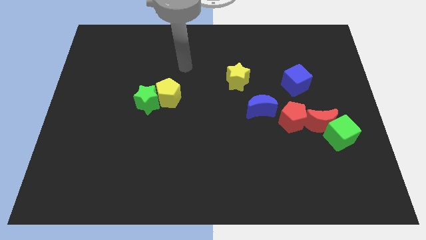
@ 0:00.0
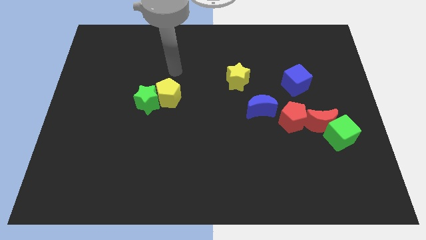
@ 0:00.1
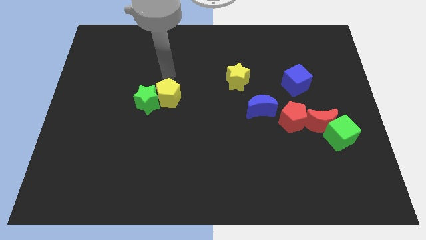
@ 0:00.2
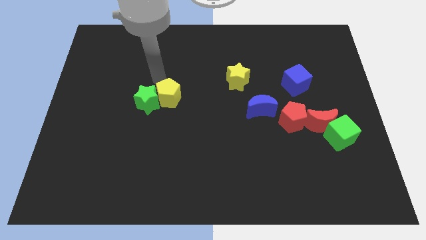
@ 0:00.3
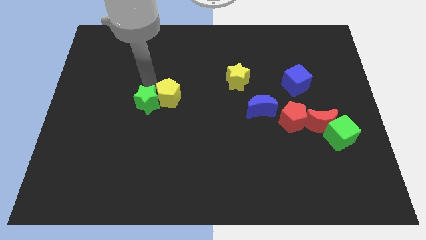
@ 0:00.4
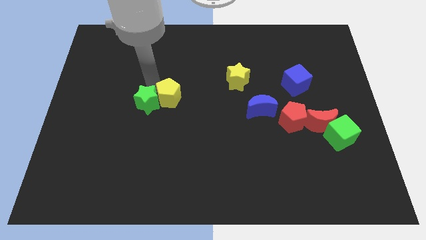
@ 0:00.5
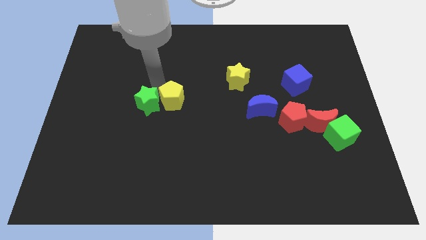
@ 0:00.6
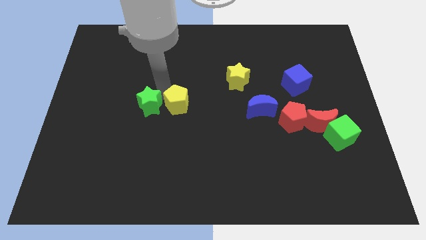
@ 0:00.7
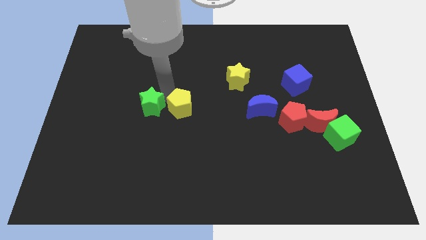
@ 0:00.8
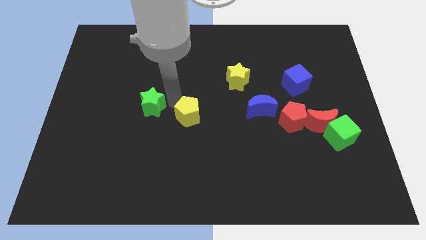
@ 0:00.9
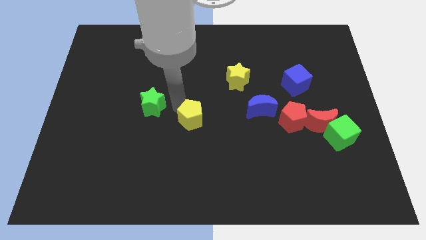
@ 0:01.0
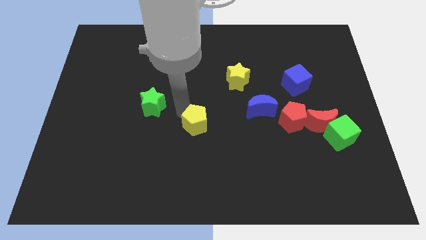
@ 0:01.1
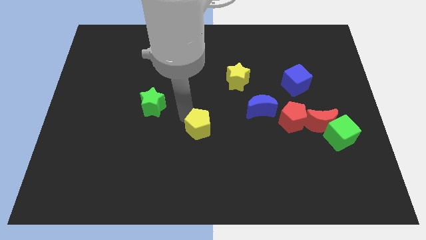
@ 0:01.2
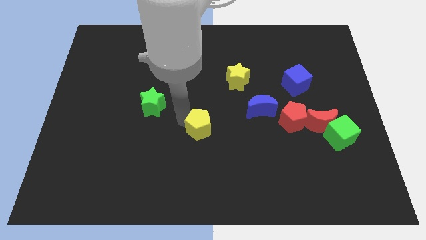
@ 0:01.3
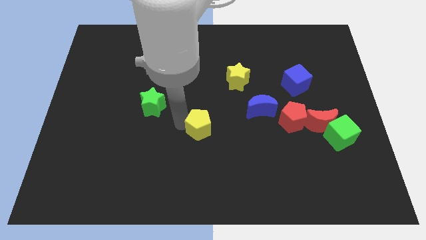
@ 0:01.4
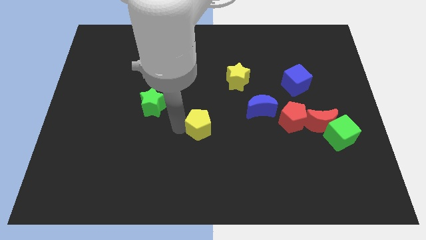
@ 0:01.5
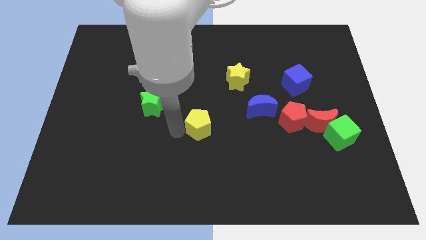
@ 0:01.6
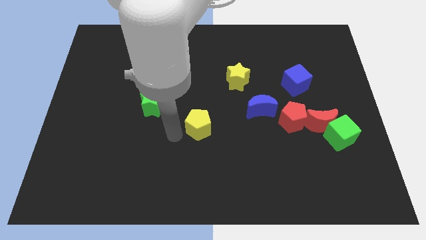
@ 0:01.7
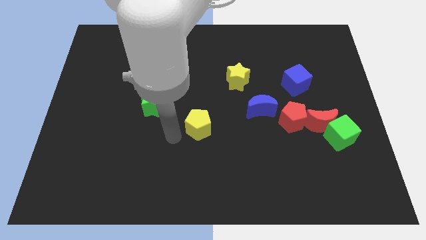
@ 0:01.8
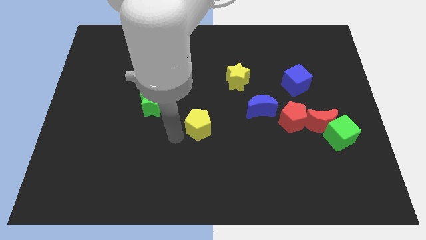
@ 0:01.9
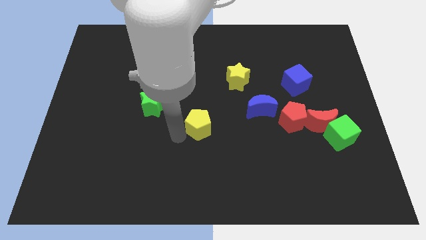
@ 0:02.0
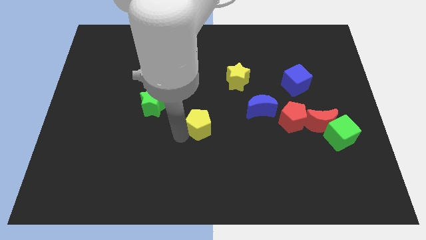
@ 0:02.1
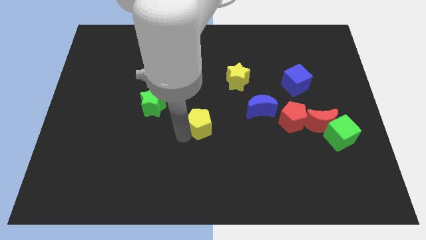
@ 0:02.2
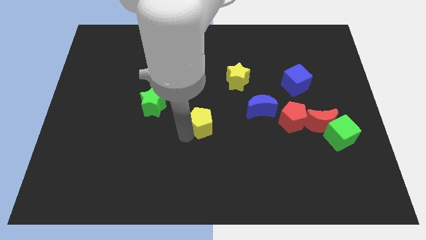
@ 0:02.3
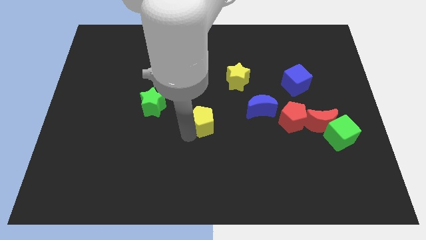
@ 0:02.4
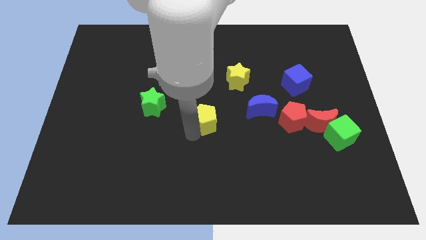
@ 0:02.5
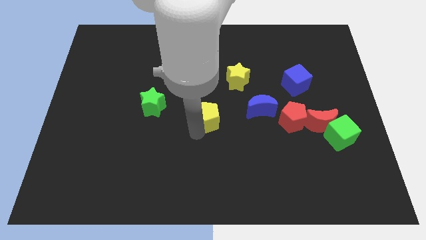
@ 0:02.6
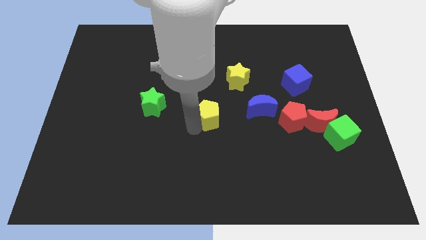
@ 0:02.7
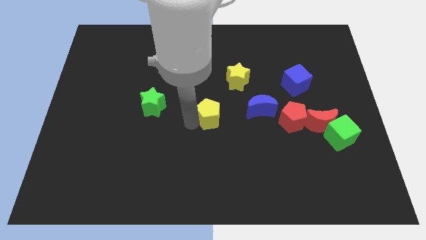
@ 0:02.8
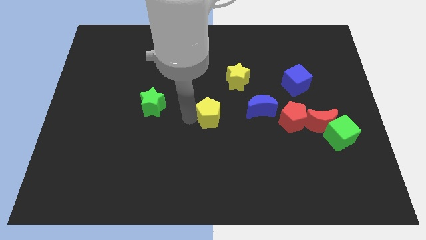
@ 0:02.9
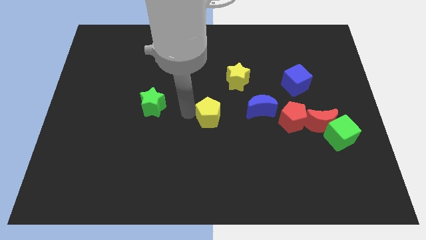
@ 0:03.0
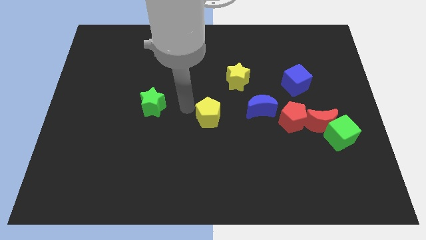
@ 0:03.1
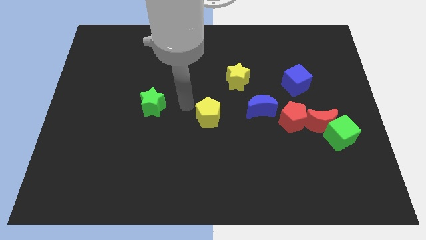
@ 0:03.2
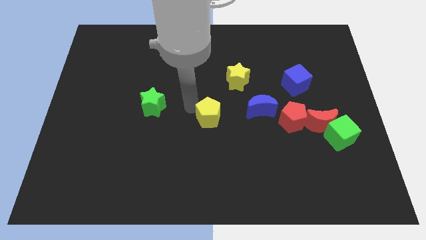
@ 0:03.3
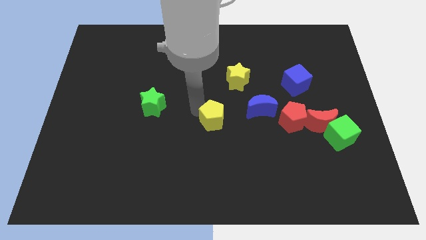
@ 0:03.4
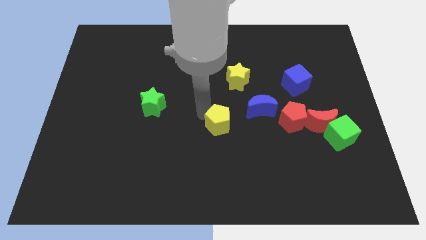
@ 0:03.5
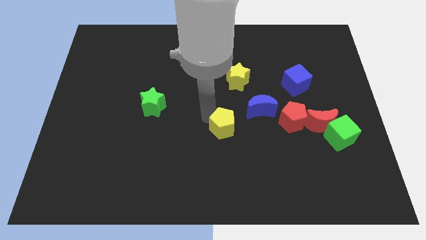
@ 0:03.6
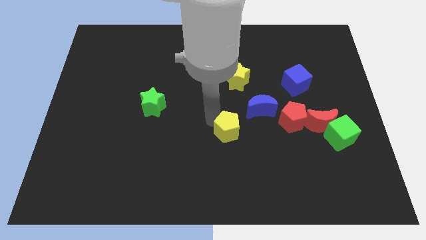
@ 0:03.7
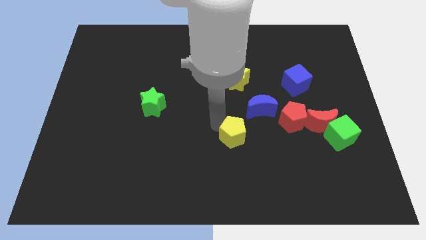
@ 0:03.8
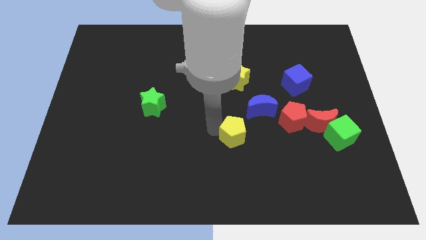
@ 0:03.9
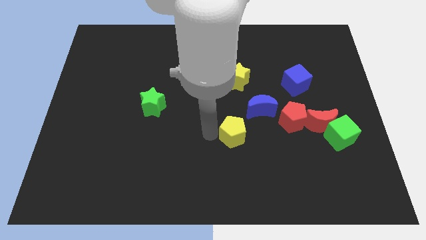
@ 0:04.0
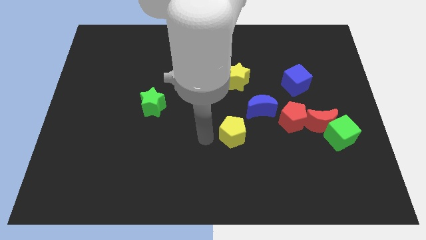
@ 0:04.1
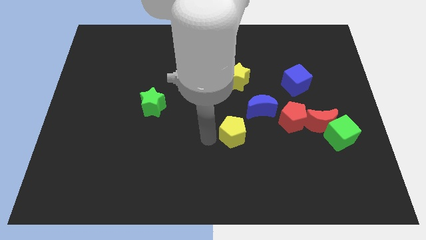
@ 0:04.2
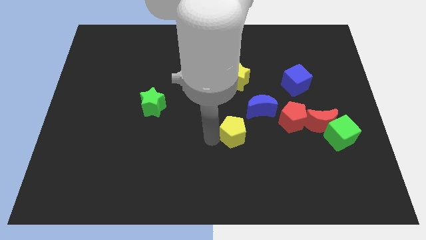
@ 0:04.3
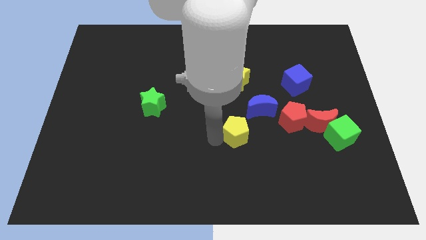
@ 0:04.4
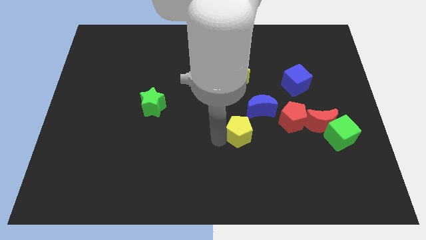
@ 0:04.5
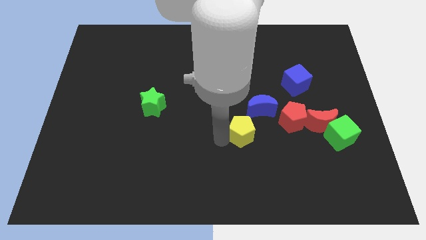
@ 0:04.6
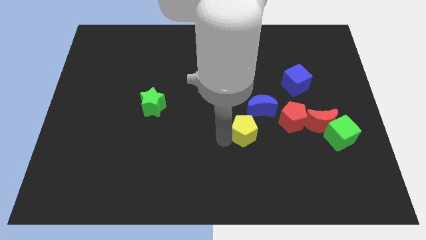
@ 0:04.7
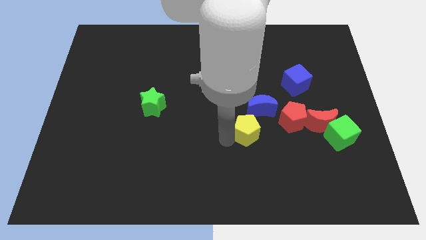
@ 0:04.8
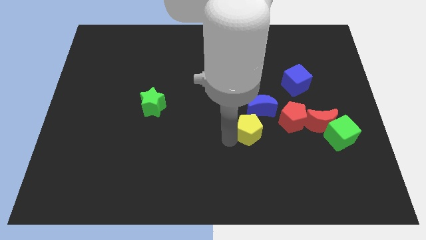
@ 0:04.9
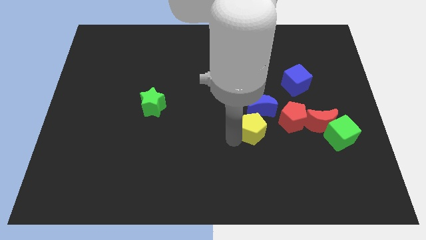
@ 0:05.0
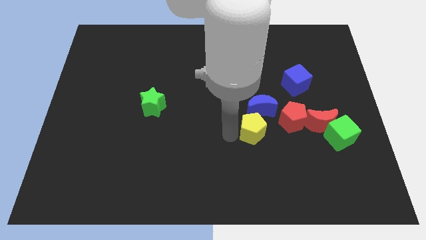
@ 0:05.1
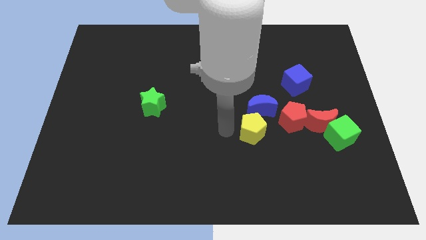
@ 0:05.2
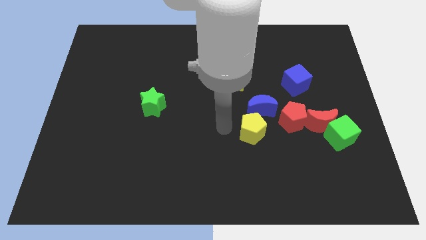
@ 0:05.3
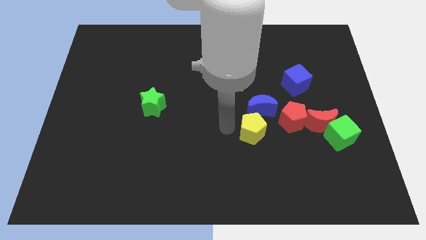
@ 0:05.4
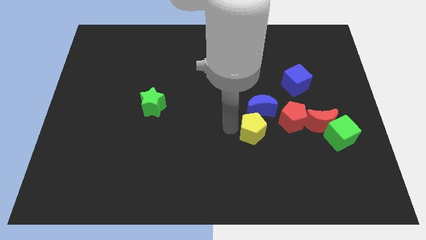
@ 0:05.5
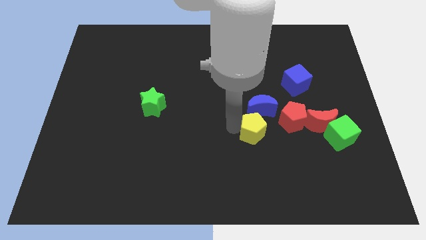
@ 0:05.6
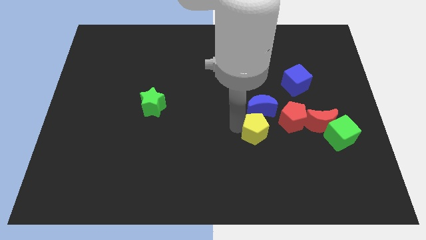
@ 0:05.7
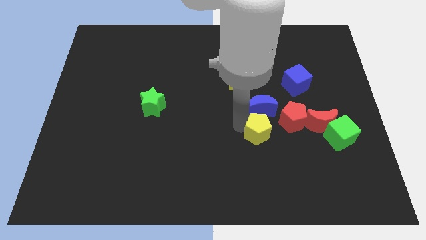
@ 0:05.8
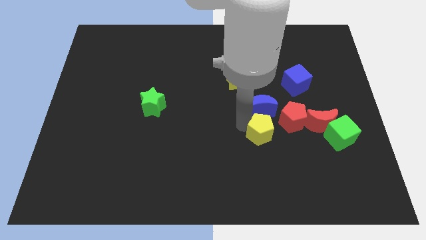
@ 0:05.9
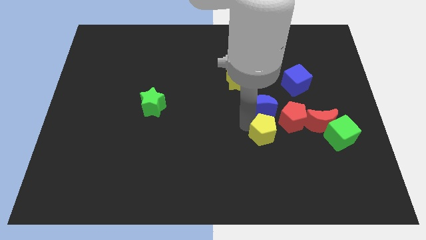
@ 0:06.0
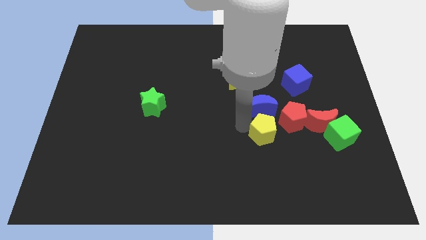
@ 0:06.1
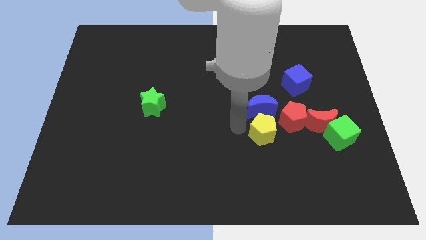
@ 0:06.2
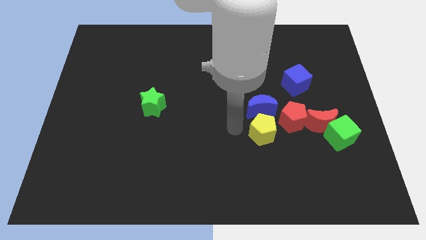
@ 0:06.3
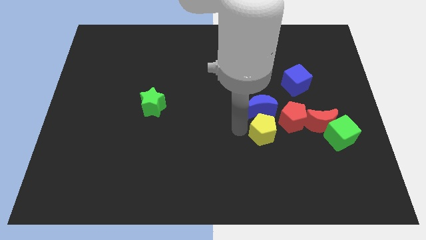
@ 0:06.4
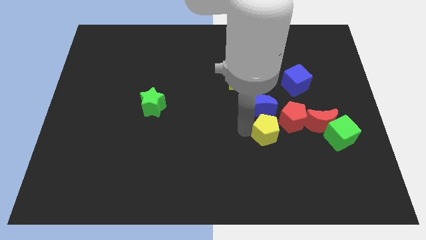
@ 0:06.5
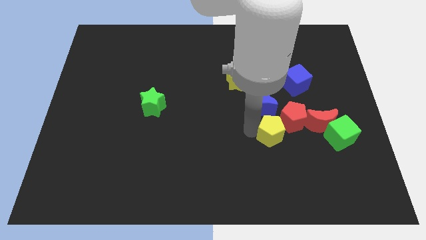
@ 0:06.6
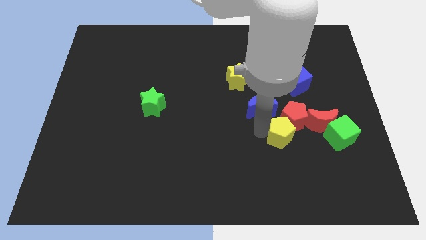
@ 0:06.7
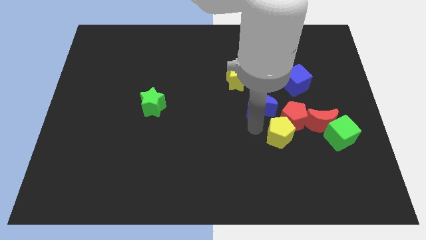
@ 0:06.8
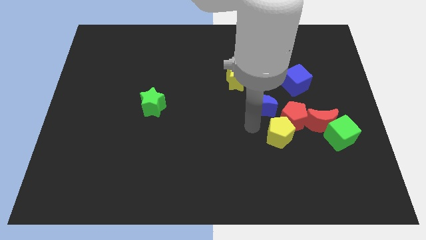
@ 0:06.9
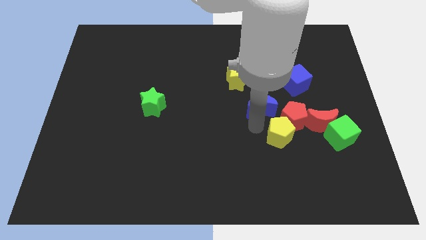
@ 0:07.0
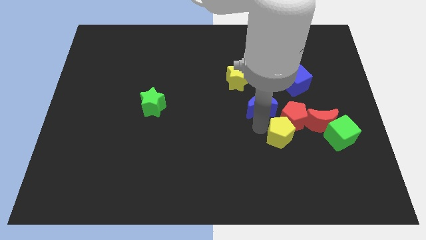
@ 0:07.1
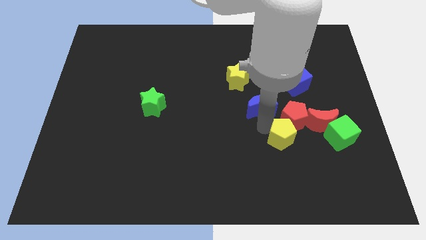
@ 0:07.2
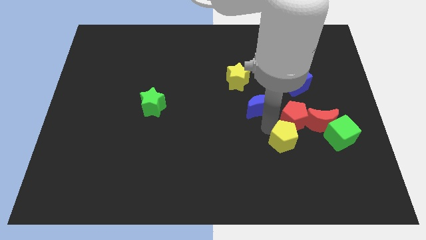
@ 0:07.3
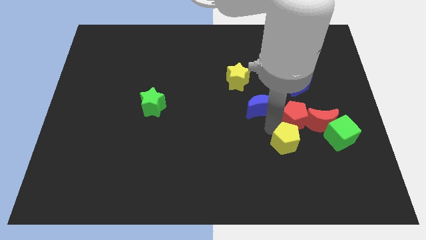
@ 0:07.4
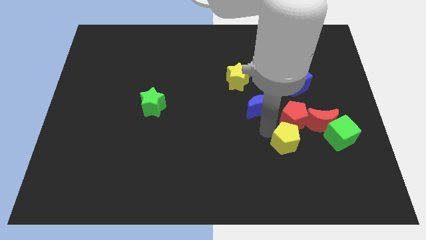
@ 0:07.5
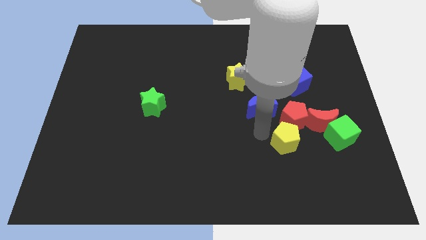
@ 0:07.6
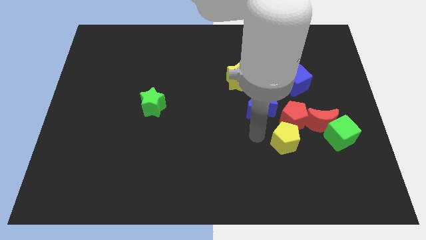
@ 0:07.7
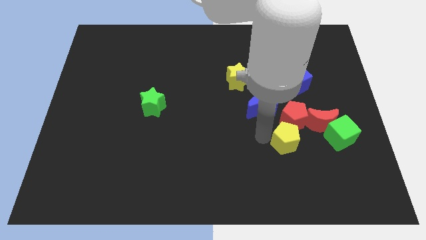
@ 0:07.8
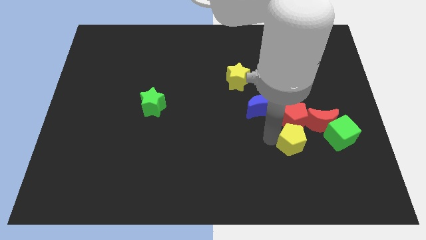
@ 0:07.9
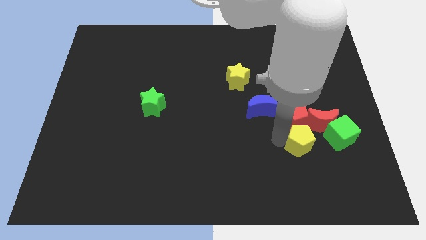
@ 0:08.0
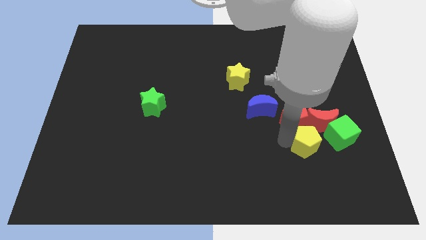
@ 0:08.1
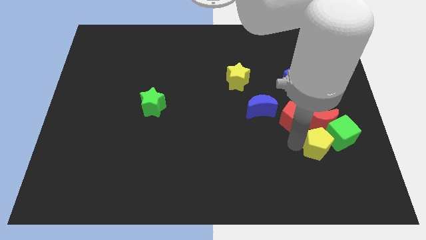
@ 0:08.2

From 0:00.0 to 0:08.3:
move the yellow pentagon next to the green cube
